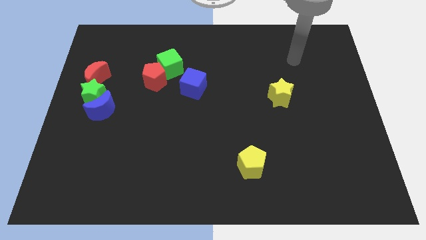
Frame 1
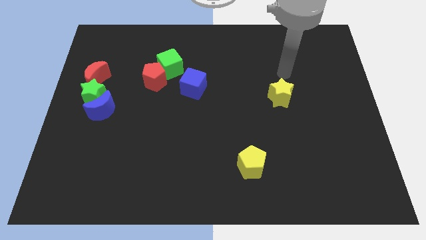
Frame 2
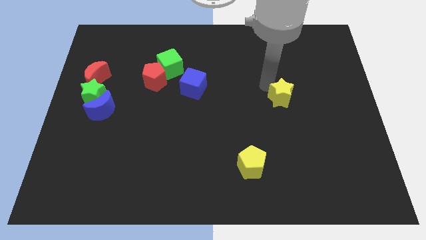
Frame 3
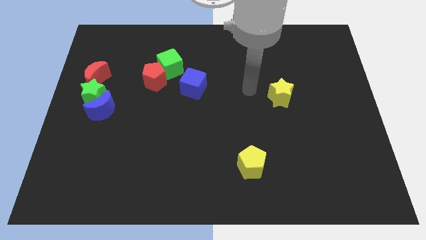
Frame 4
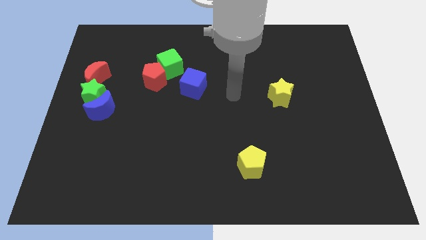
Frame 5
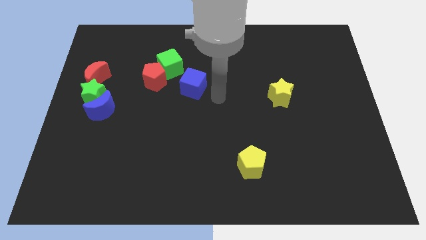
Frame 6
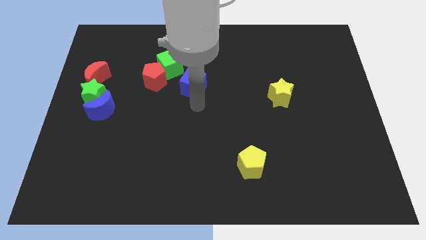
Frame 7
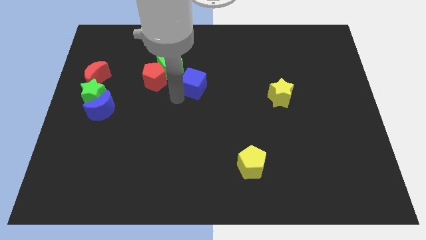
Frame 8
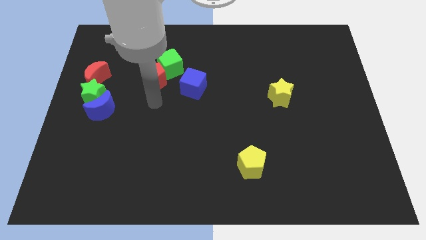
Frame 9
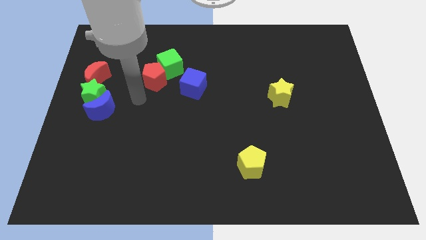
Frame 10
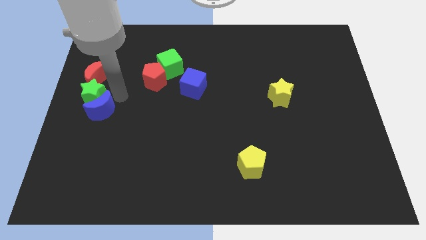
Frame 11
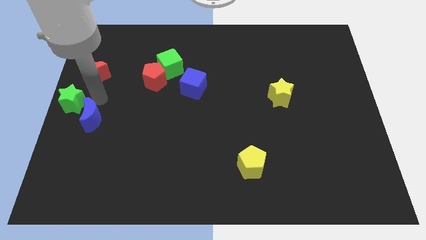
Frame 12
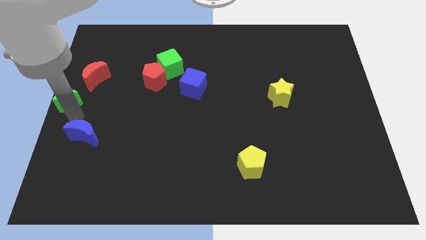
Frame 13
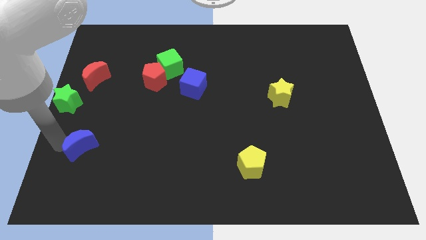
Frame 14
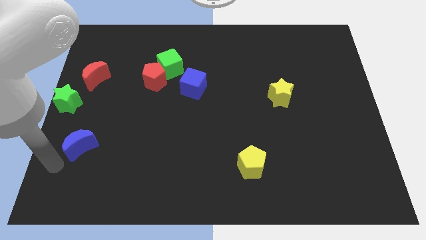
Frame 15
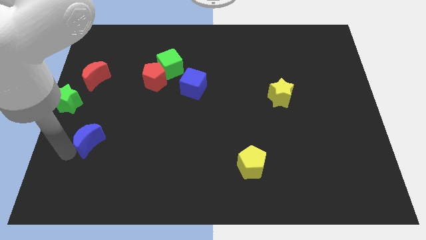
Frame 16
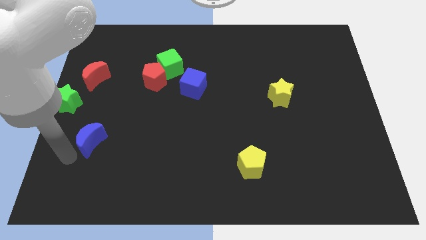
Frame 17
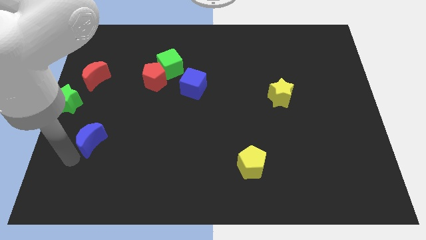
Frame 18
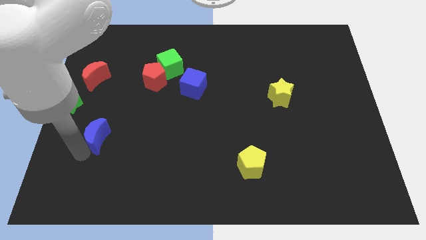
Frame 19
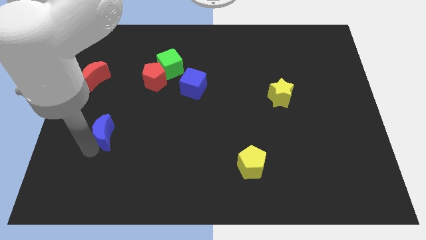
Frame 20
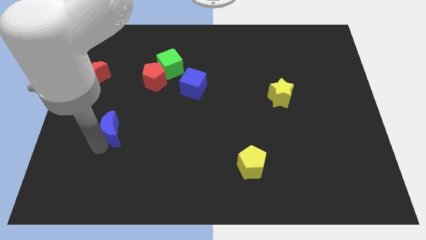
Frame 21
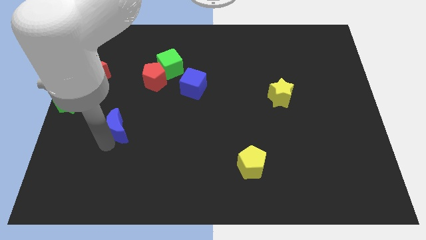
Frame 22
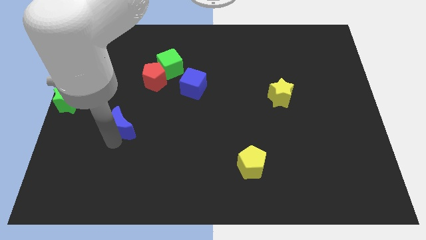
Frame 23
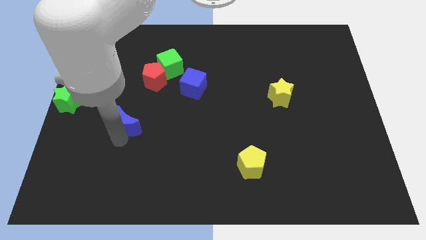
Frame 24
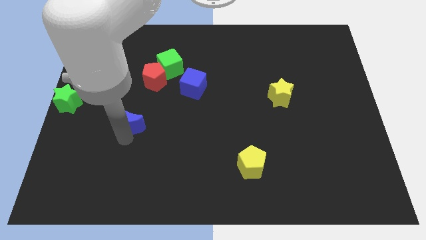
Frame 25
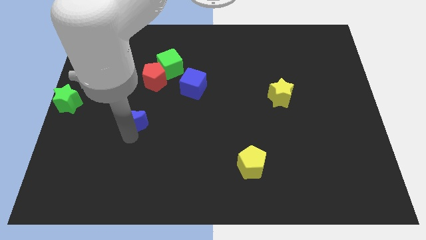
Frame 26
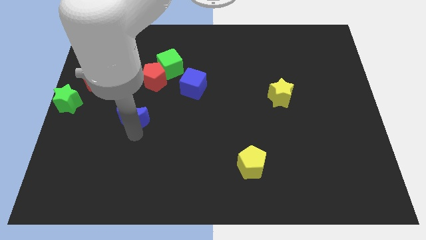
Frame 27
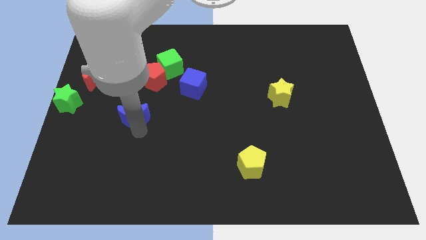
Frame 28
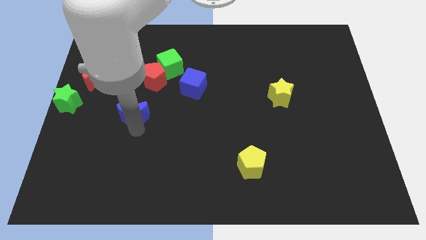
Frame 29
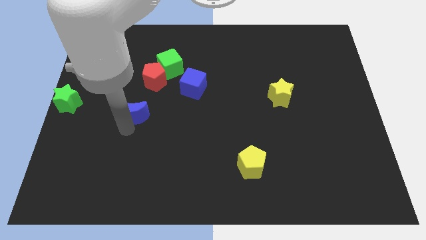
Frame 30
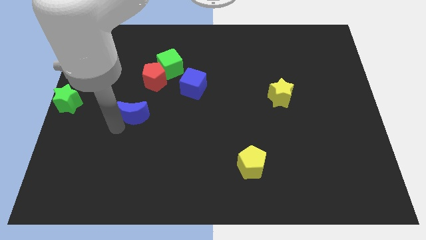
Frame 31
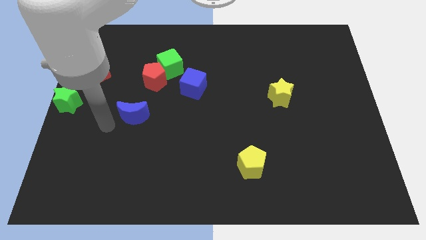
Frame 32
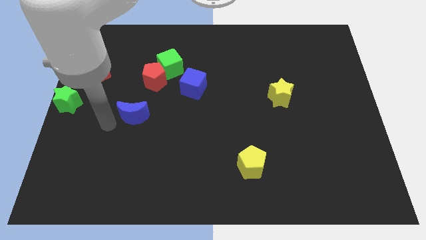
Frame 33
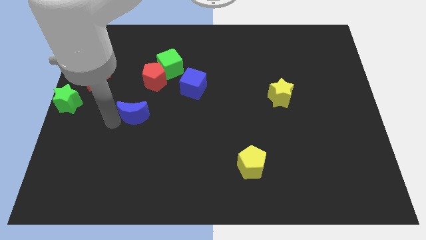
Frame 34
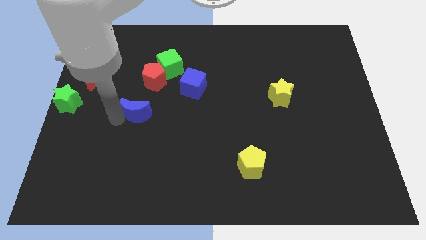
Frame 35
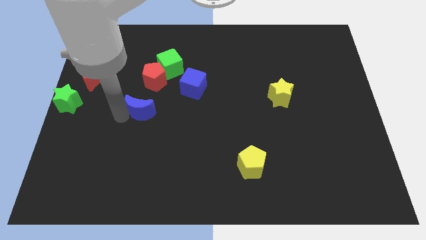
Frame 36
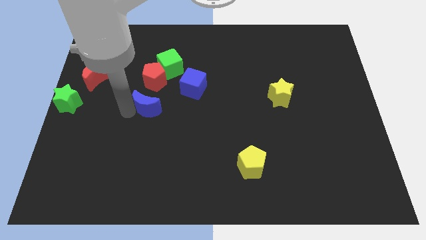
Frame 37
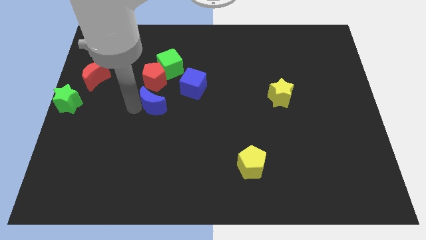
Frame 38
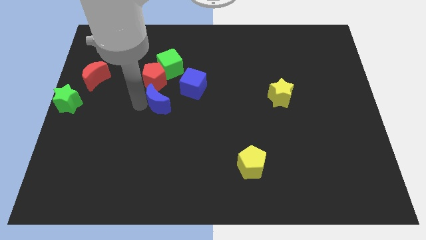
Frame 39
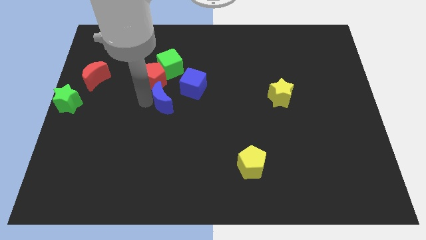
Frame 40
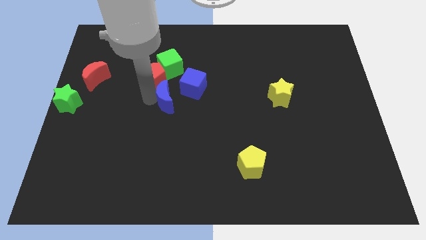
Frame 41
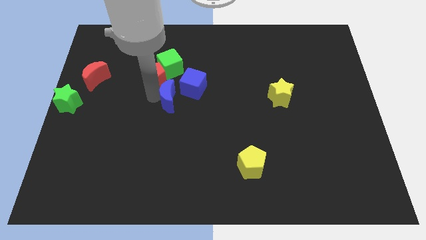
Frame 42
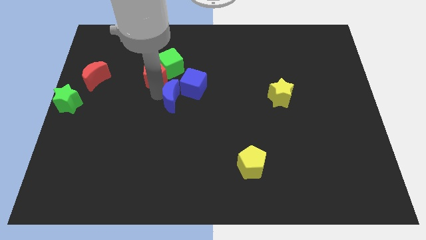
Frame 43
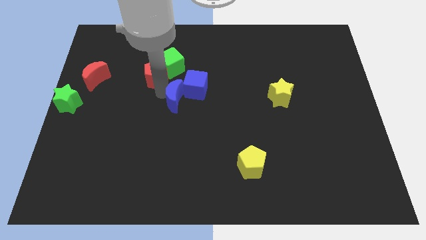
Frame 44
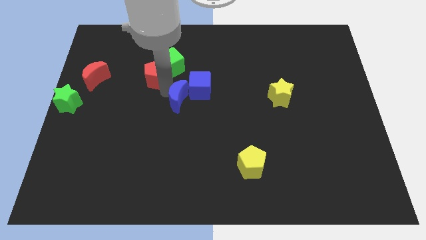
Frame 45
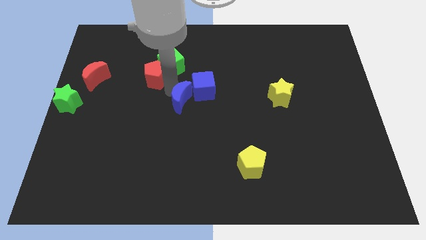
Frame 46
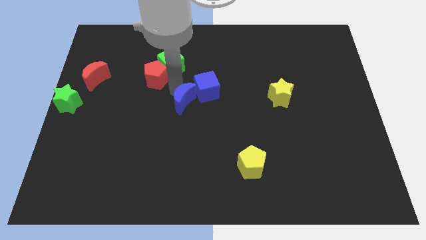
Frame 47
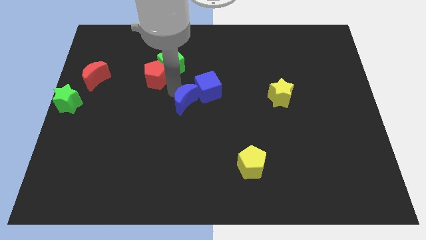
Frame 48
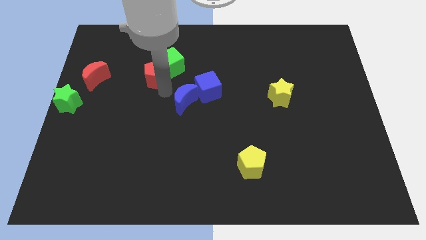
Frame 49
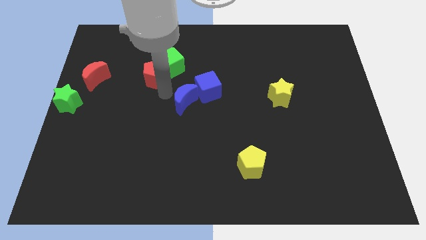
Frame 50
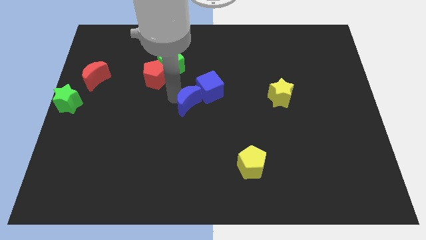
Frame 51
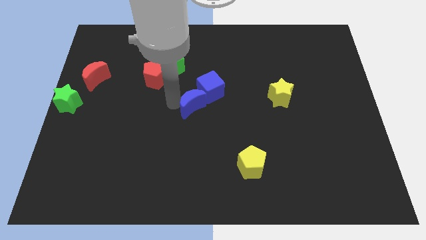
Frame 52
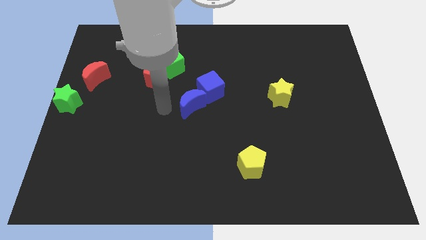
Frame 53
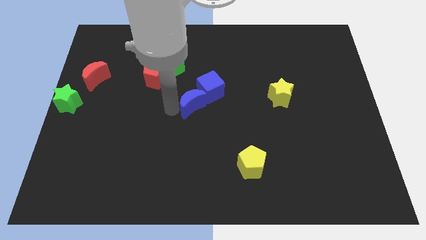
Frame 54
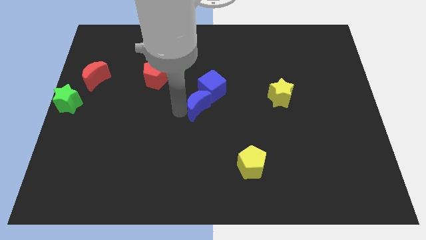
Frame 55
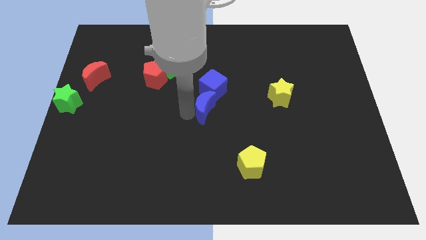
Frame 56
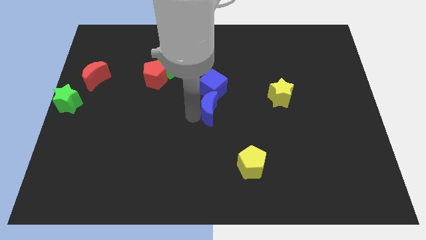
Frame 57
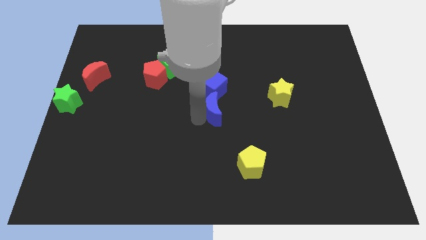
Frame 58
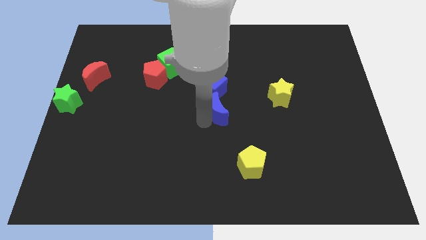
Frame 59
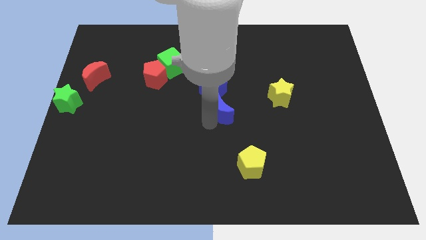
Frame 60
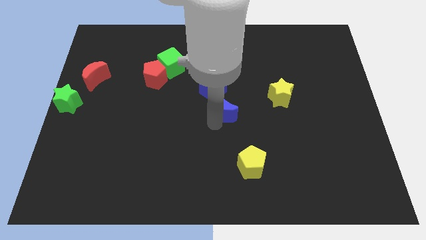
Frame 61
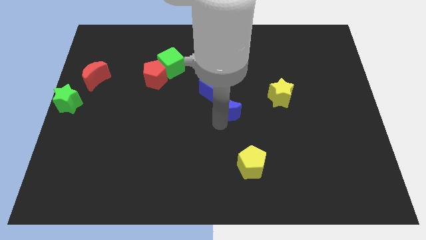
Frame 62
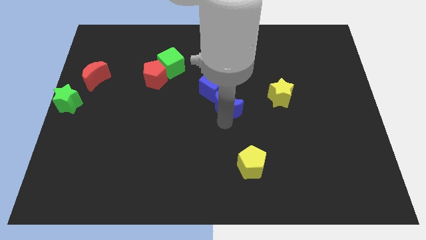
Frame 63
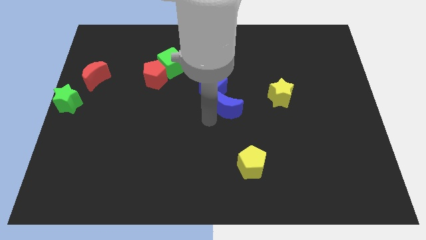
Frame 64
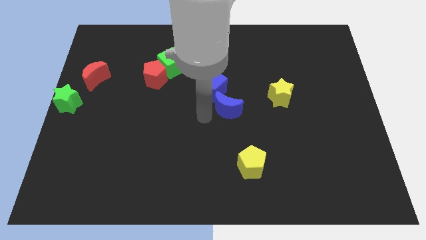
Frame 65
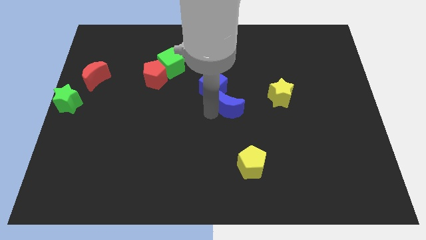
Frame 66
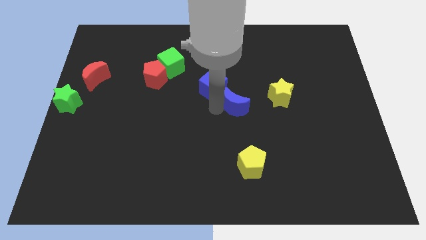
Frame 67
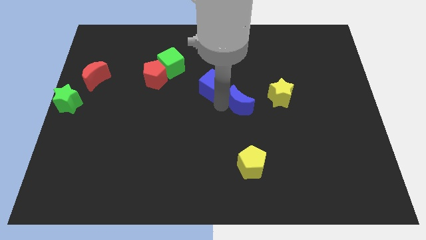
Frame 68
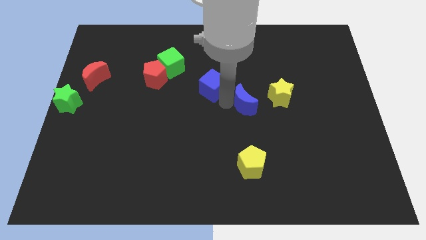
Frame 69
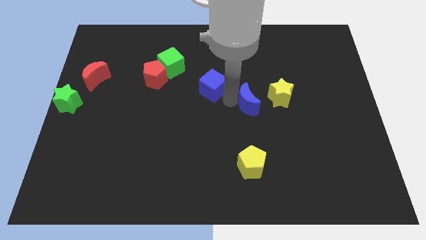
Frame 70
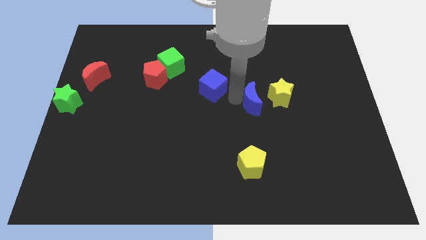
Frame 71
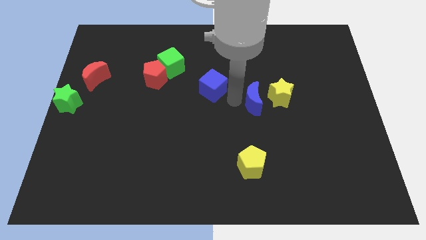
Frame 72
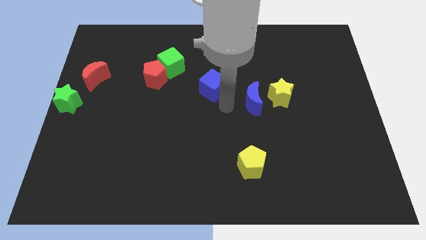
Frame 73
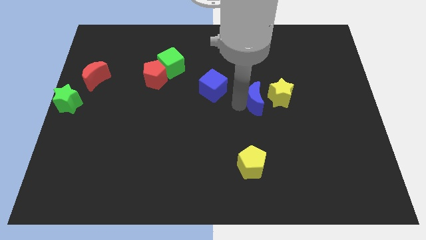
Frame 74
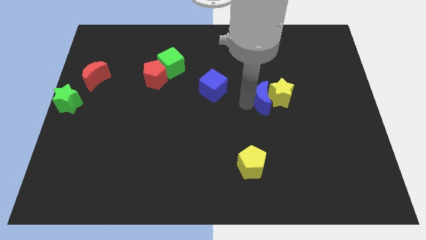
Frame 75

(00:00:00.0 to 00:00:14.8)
move the blue moon next to the yellow star
